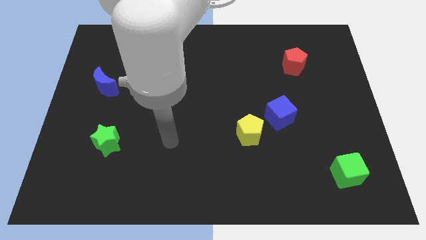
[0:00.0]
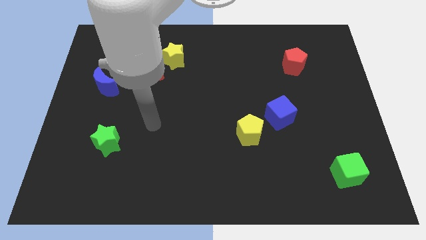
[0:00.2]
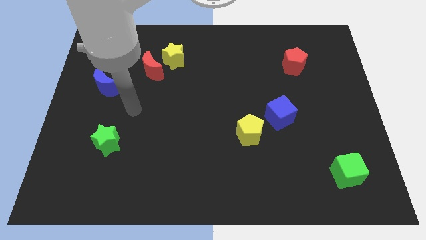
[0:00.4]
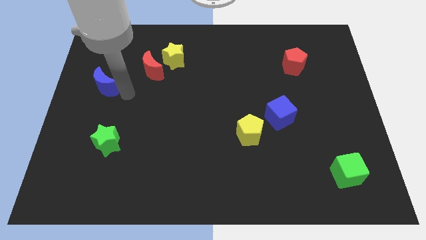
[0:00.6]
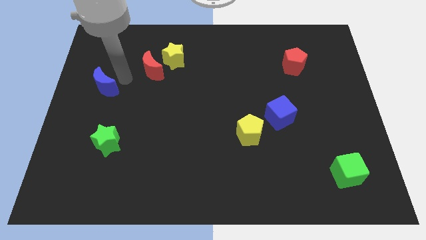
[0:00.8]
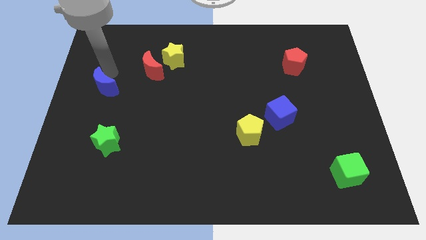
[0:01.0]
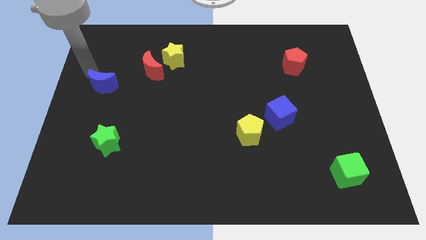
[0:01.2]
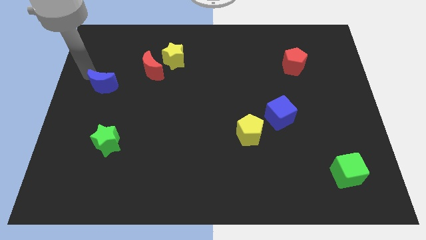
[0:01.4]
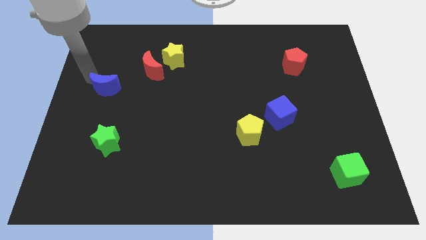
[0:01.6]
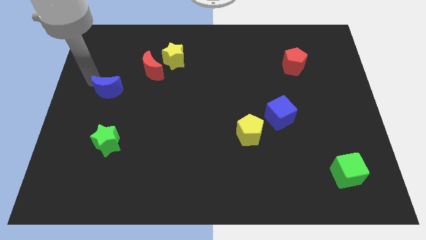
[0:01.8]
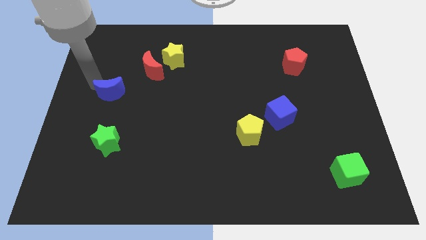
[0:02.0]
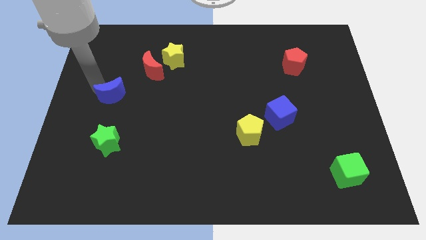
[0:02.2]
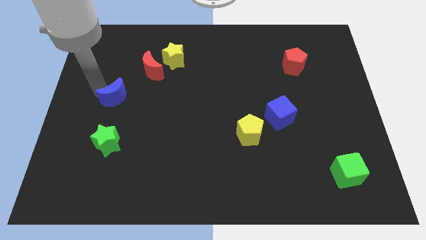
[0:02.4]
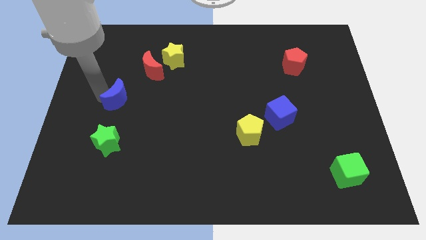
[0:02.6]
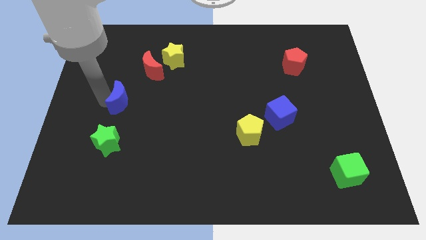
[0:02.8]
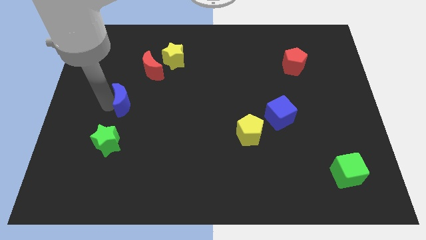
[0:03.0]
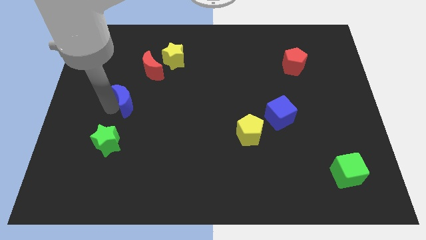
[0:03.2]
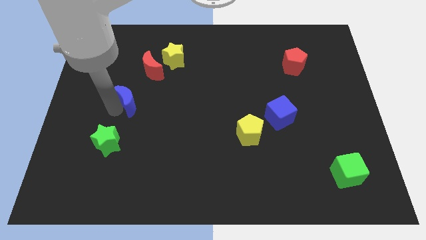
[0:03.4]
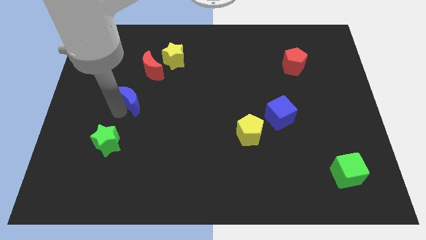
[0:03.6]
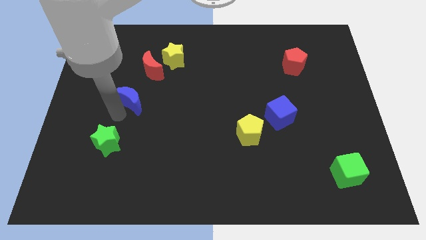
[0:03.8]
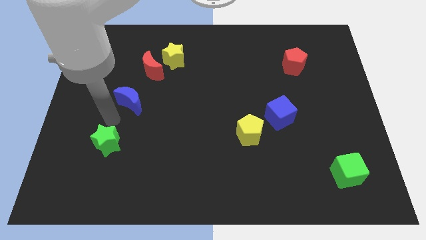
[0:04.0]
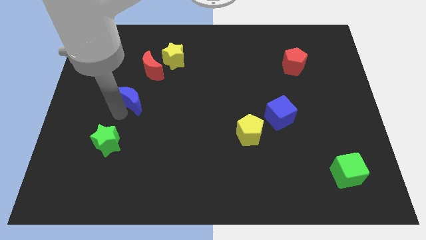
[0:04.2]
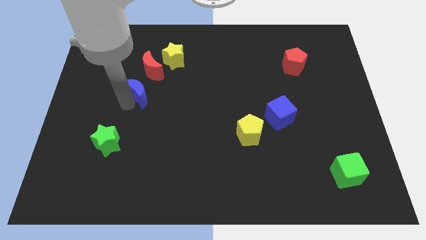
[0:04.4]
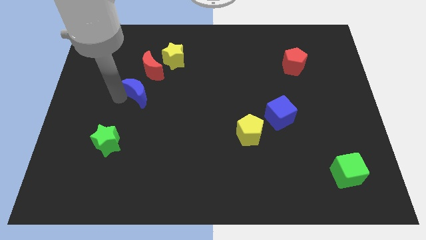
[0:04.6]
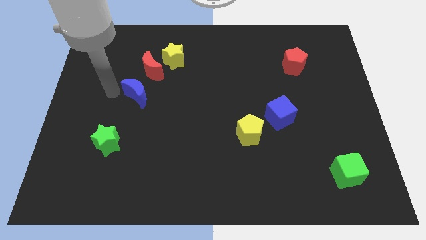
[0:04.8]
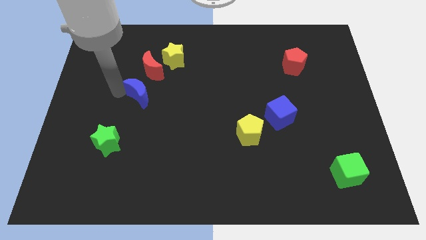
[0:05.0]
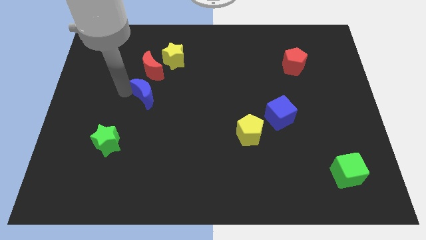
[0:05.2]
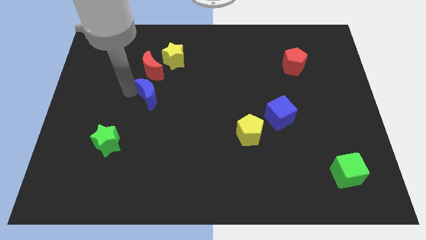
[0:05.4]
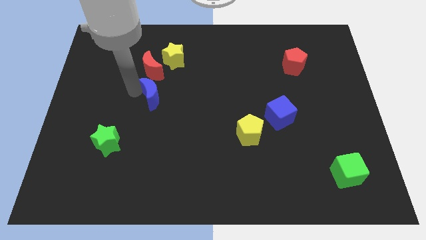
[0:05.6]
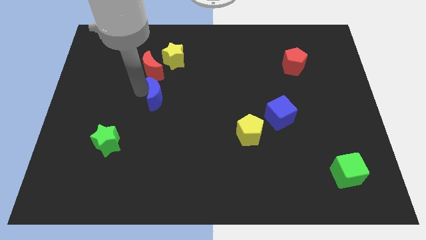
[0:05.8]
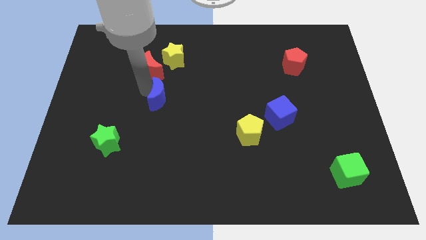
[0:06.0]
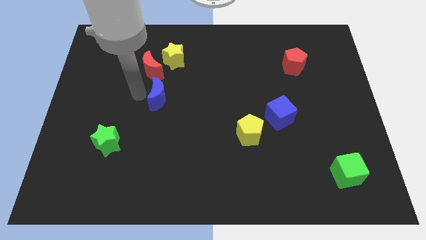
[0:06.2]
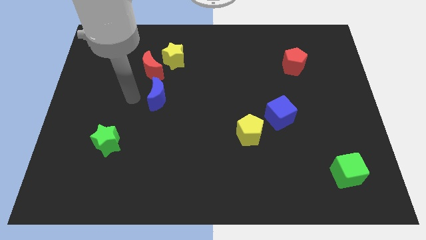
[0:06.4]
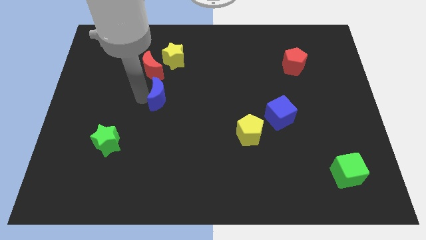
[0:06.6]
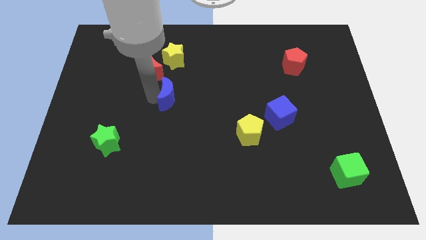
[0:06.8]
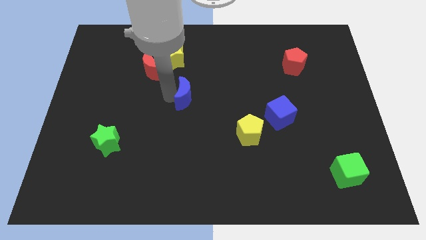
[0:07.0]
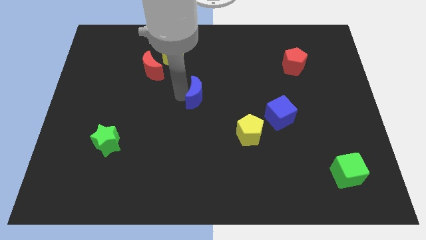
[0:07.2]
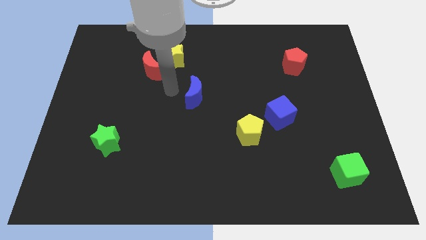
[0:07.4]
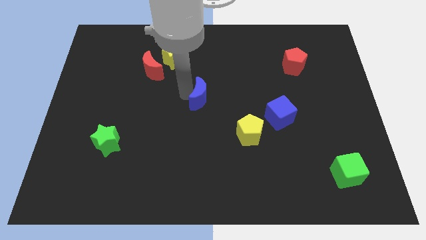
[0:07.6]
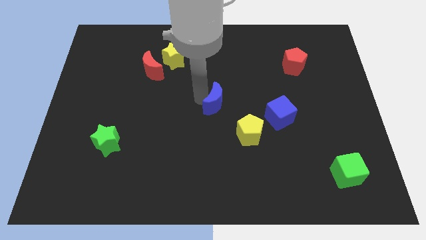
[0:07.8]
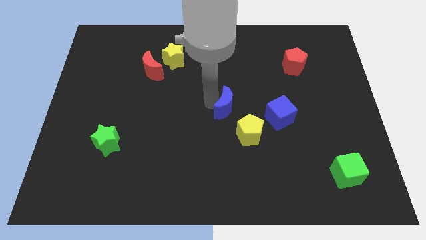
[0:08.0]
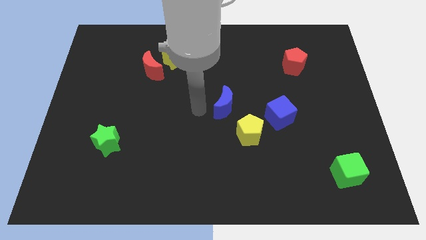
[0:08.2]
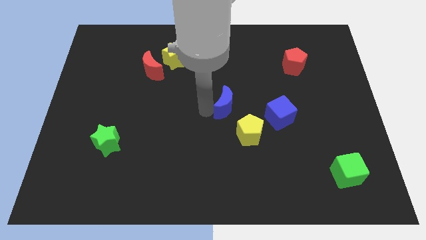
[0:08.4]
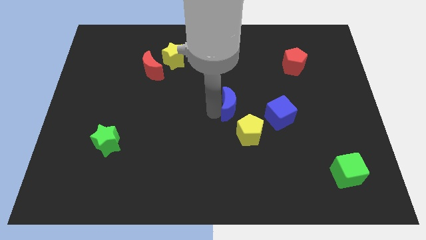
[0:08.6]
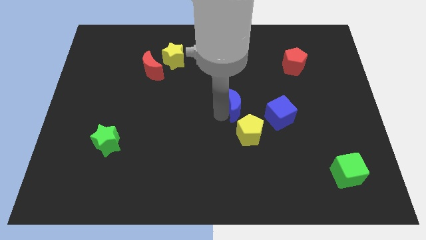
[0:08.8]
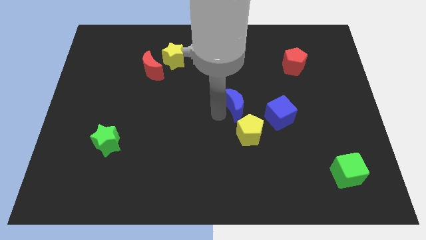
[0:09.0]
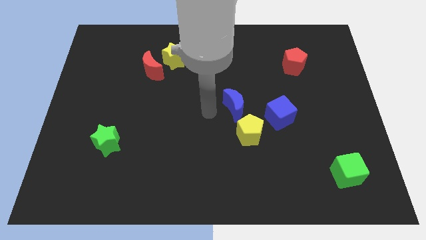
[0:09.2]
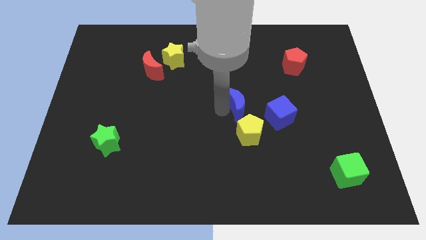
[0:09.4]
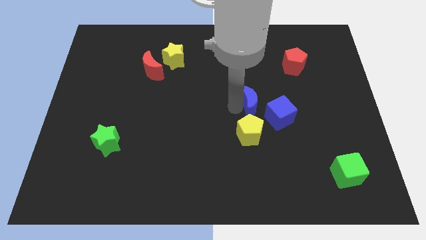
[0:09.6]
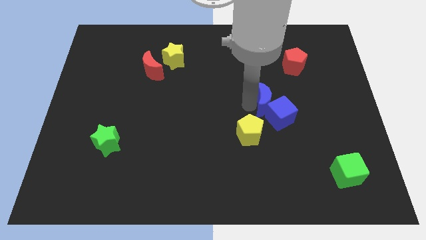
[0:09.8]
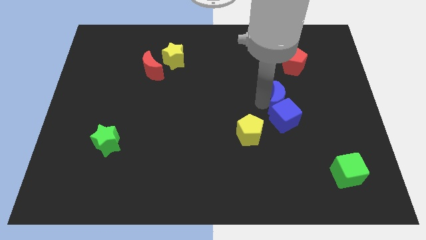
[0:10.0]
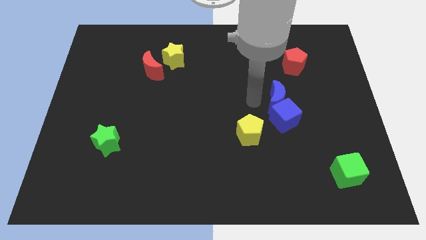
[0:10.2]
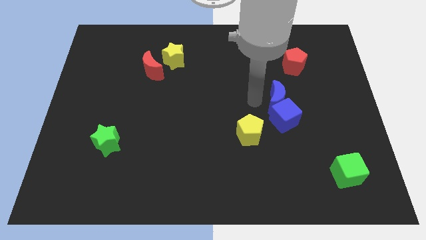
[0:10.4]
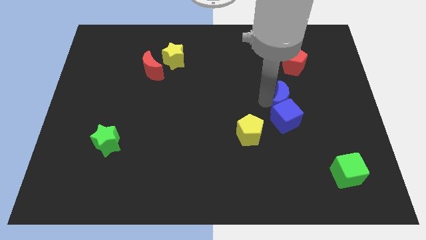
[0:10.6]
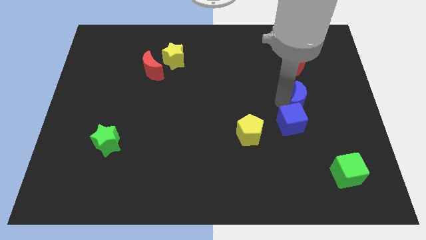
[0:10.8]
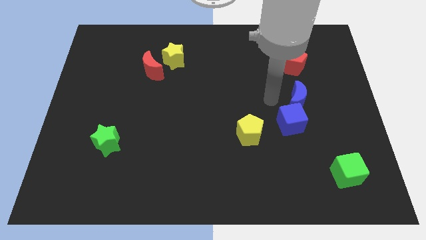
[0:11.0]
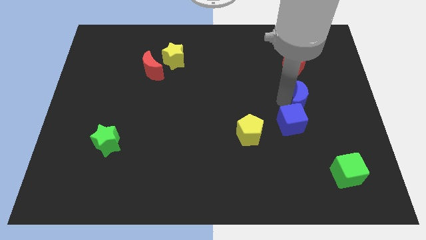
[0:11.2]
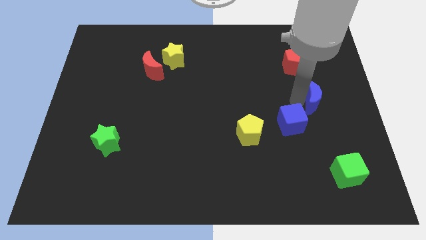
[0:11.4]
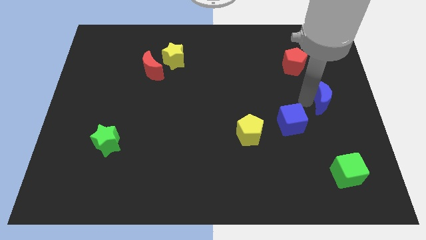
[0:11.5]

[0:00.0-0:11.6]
put the blue moon to the center right
